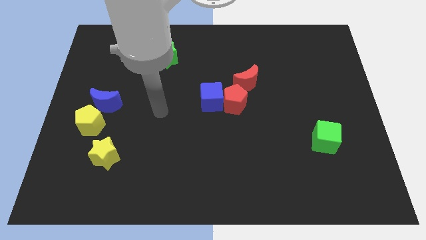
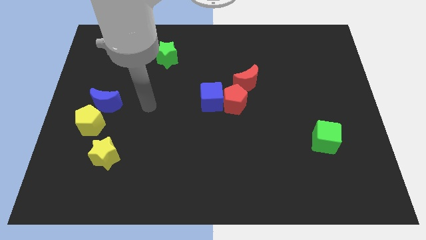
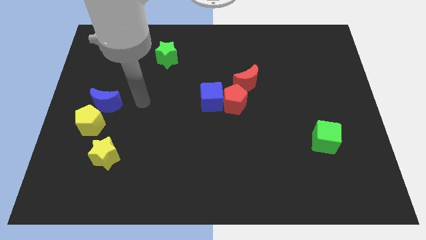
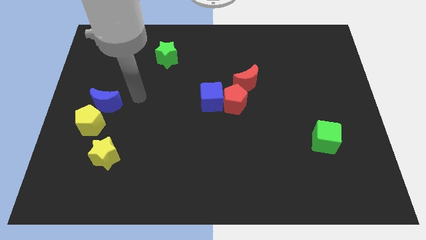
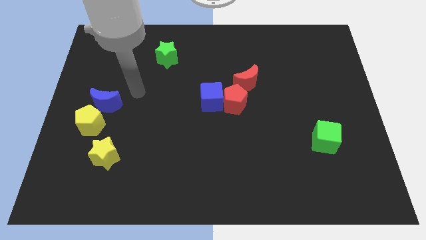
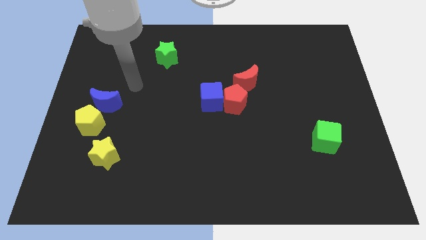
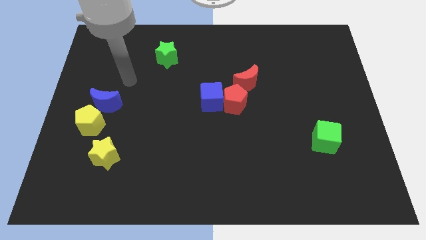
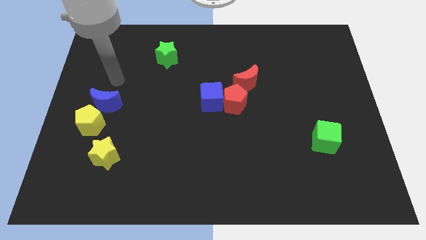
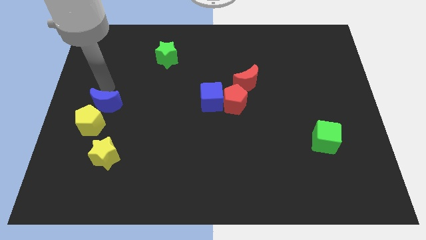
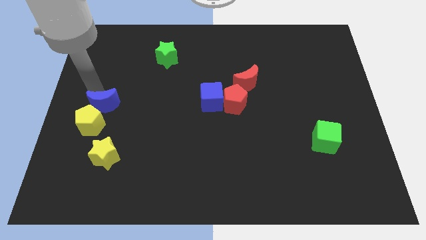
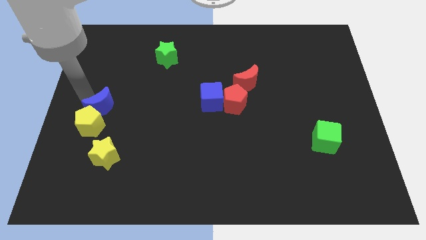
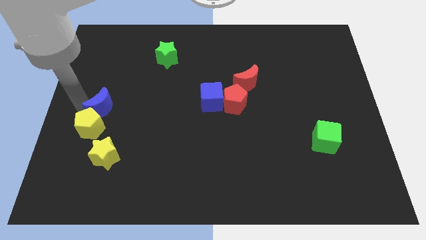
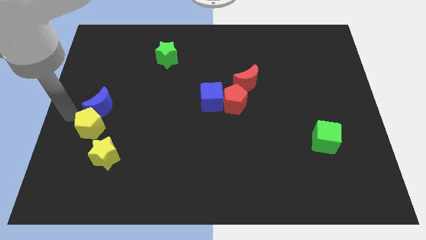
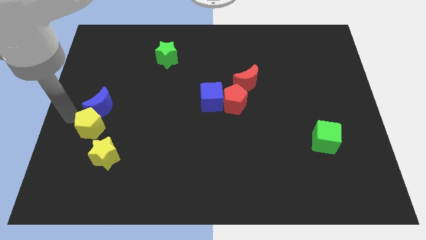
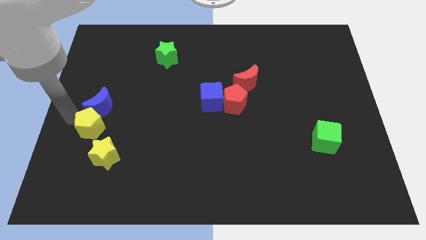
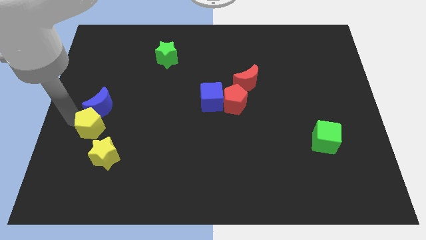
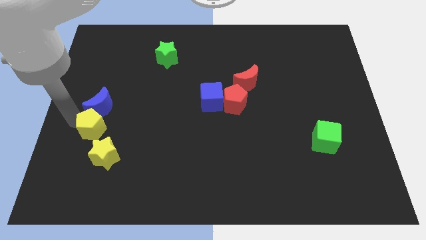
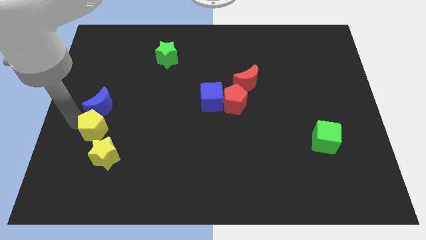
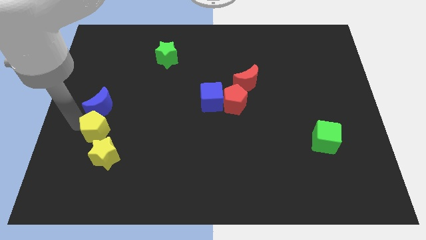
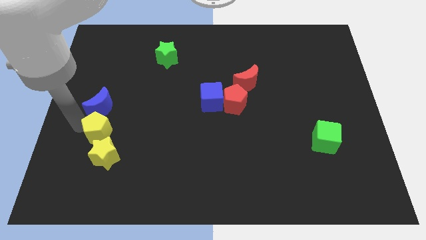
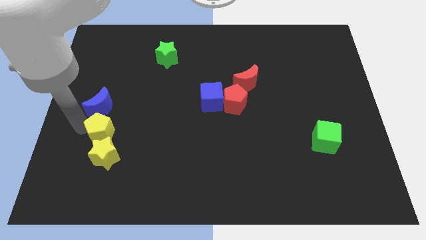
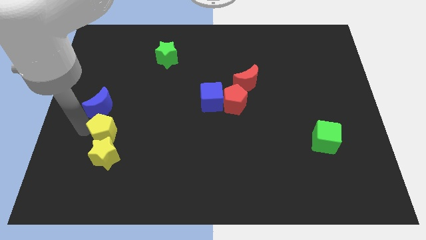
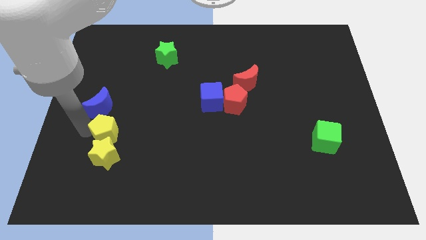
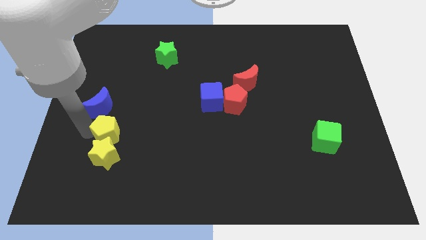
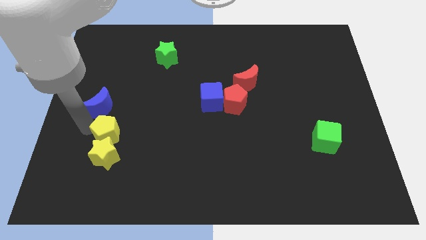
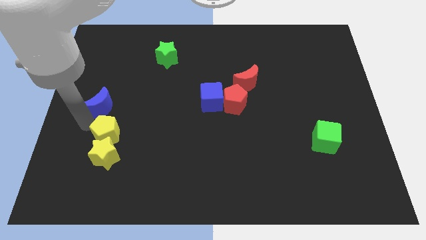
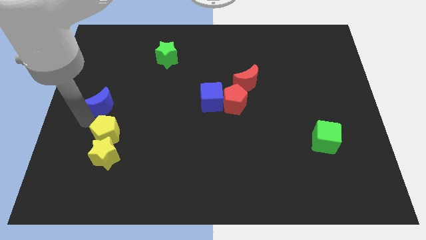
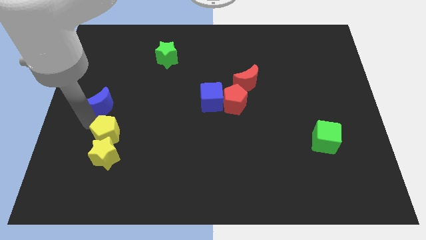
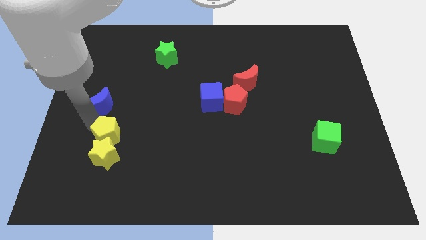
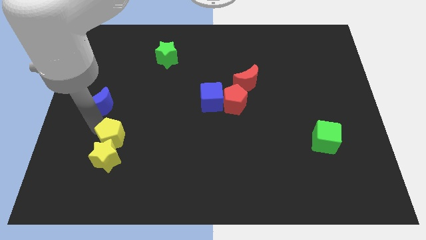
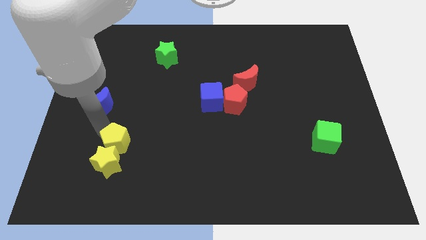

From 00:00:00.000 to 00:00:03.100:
push the yellow pentagon diagonally down and right slightly

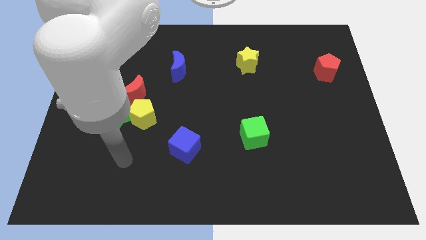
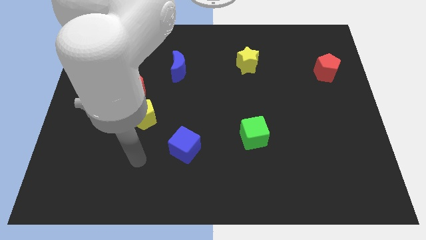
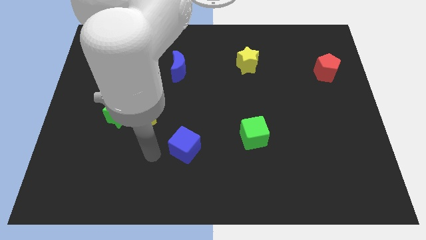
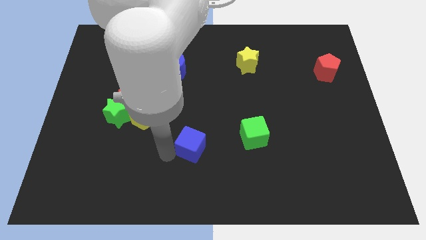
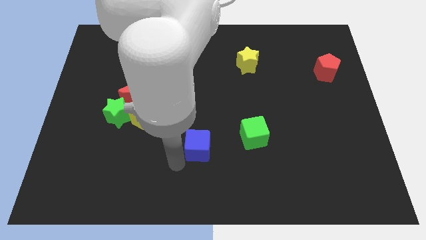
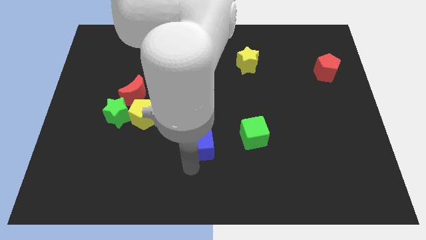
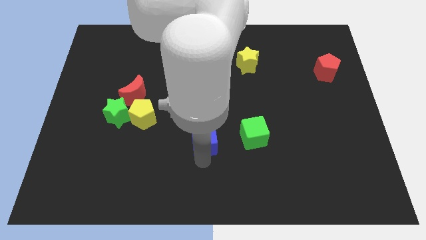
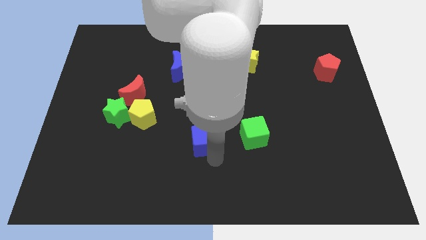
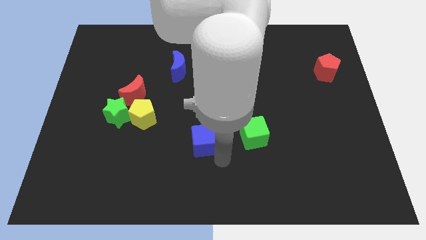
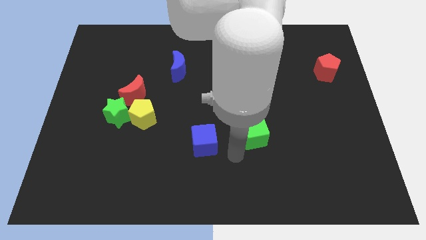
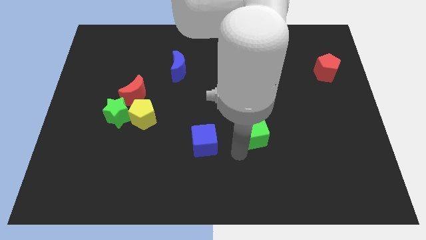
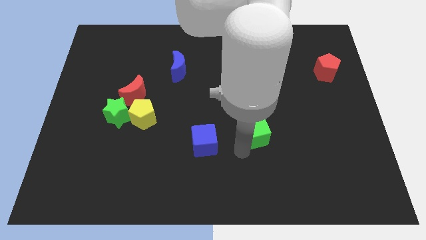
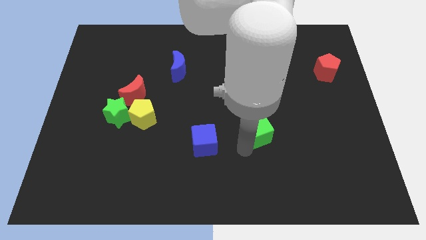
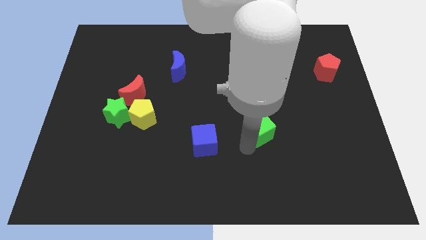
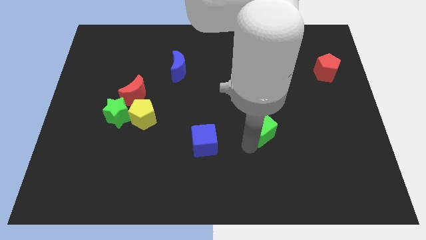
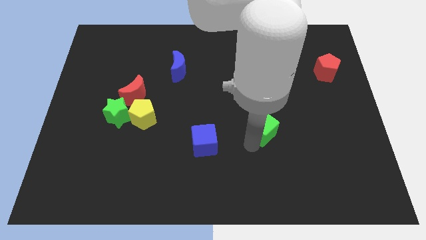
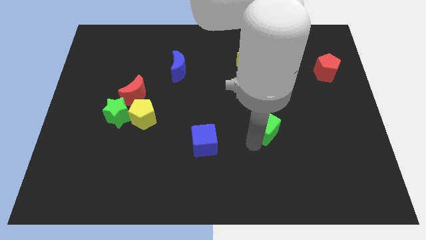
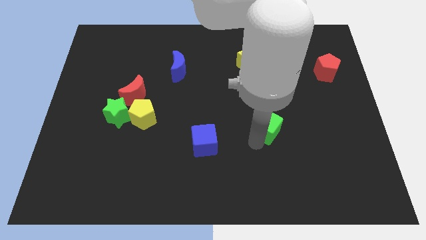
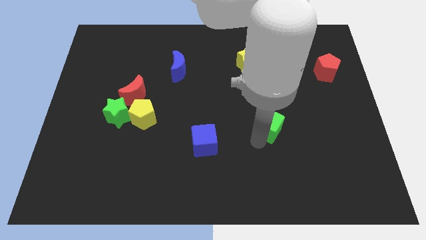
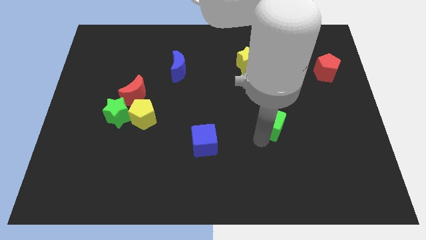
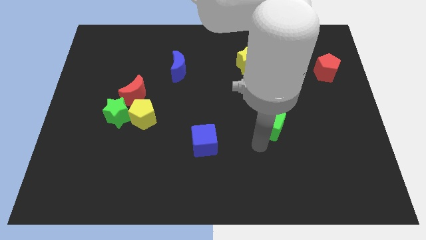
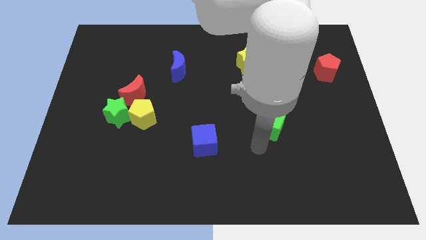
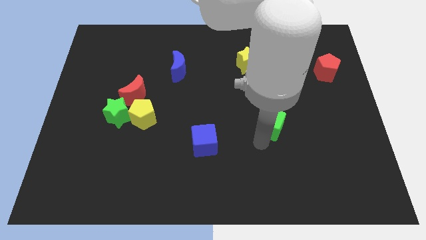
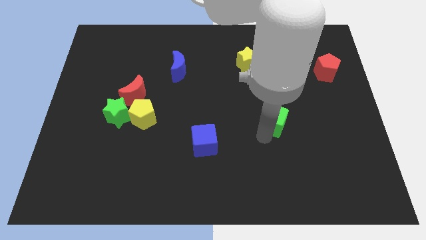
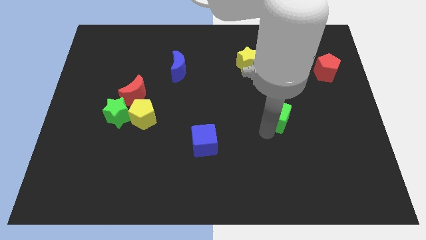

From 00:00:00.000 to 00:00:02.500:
slide the green cube a little upwards and then right

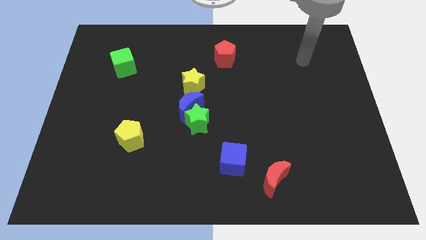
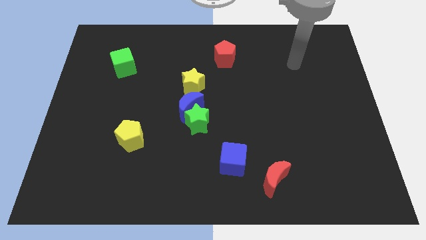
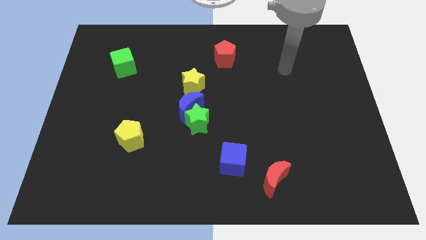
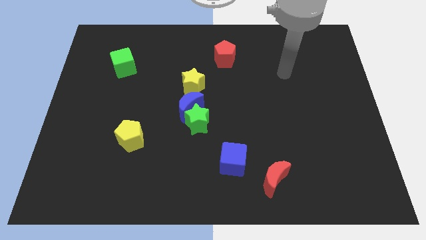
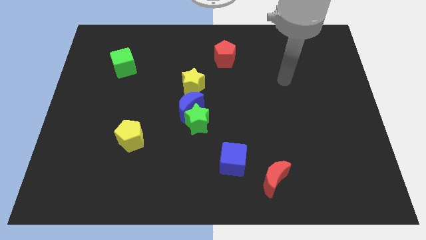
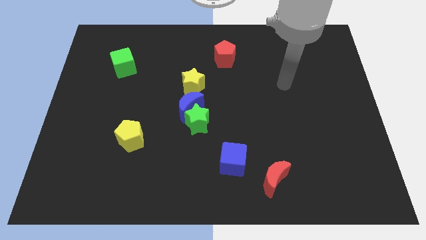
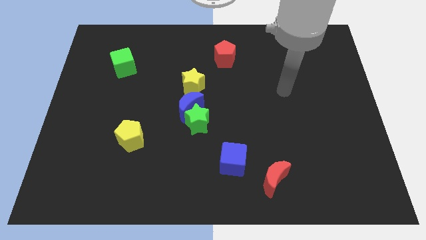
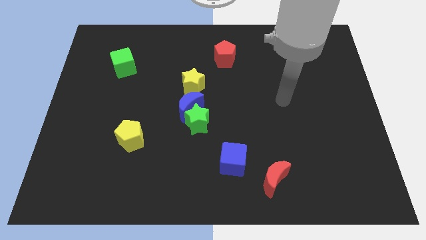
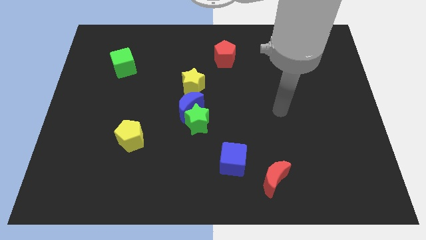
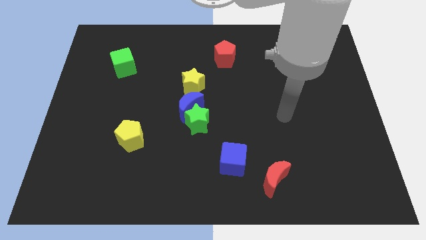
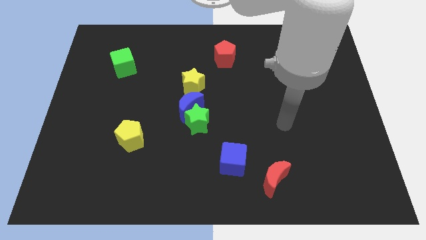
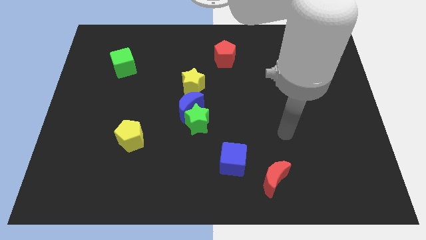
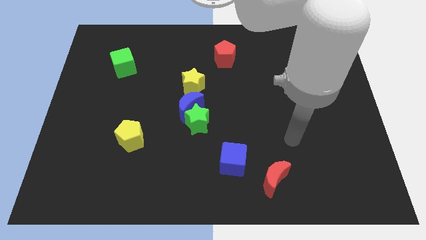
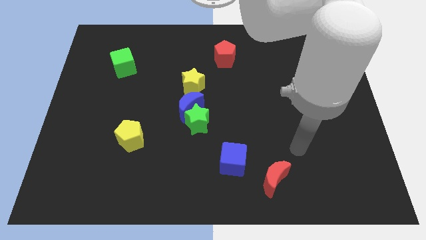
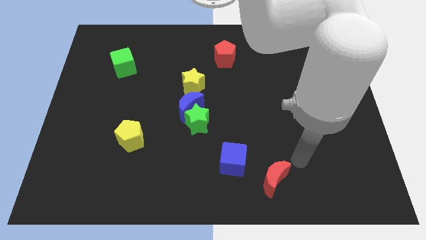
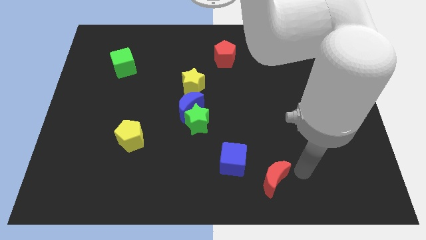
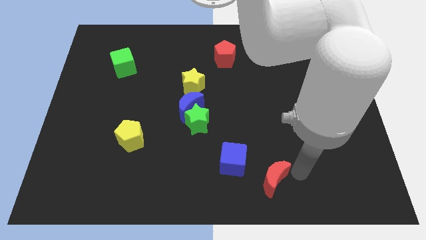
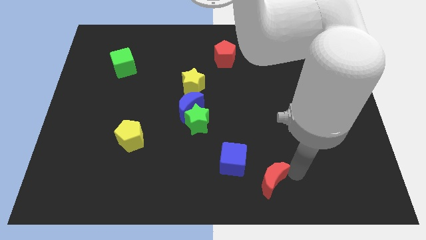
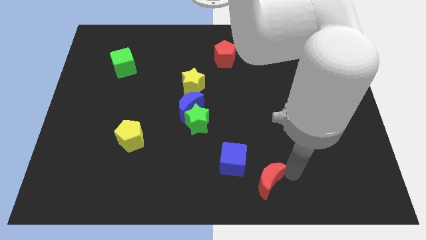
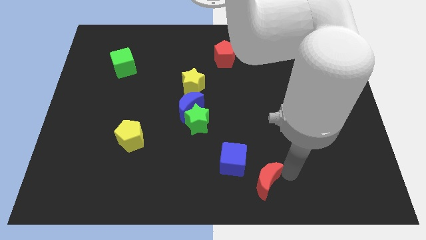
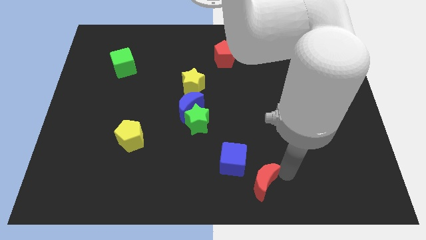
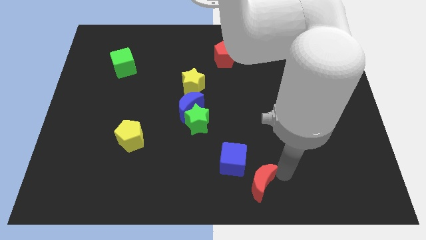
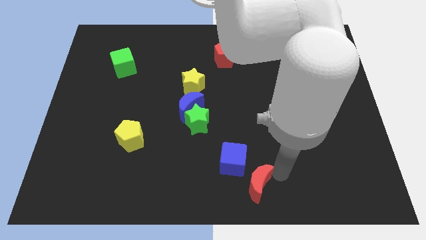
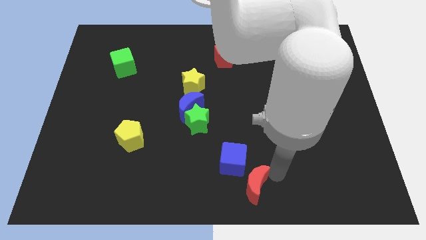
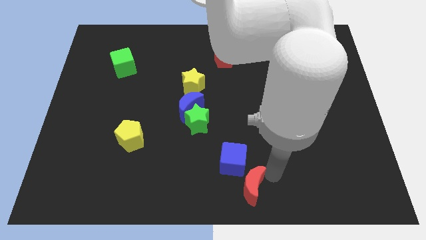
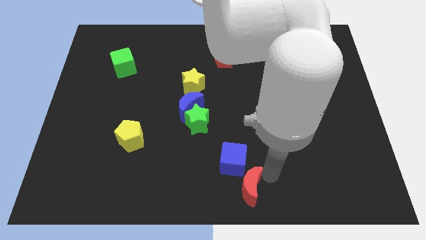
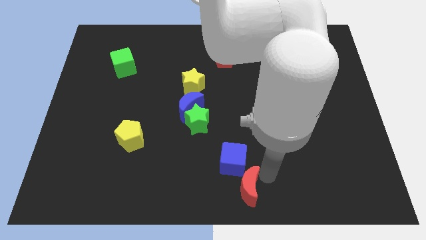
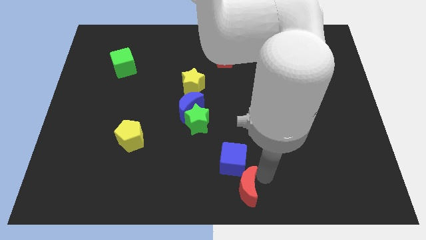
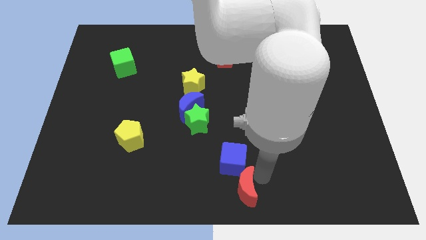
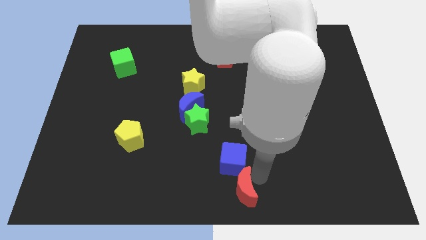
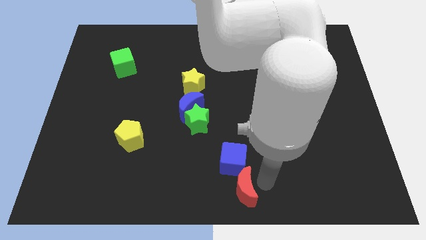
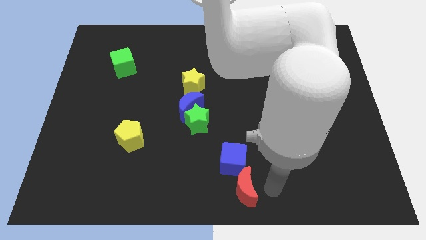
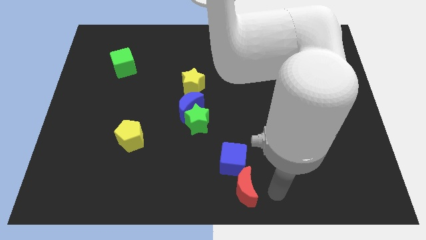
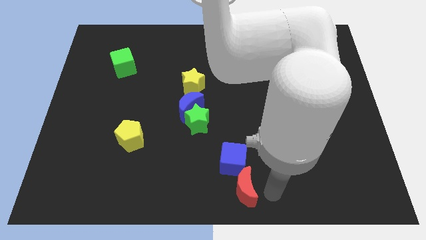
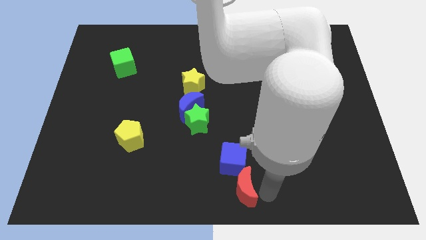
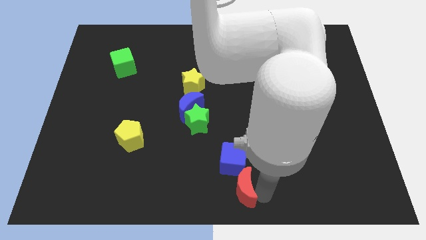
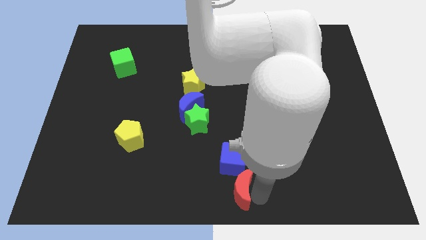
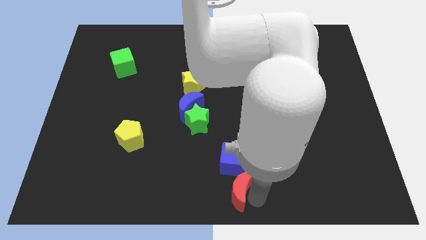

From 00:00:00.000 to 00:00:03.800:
slide the red moon to the left a bit
